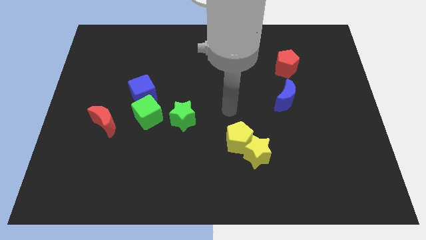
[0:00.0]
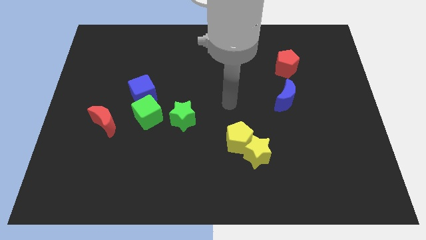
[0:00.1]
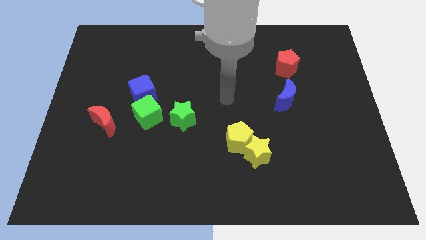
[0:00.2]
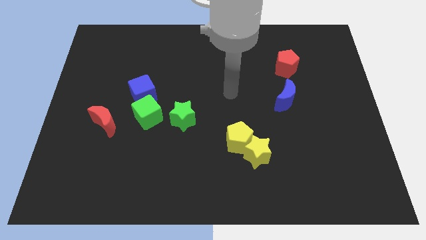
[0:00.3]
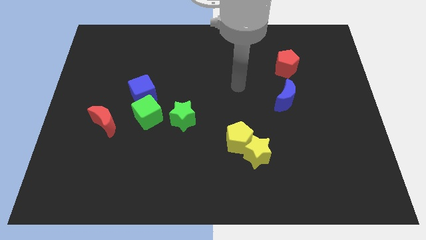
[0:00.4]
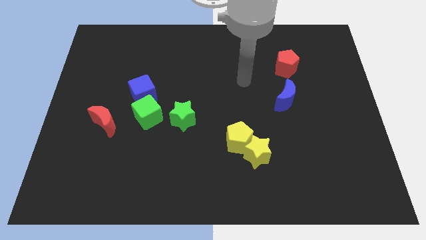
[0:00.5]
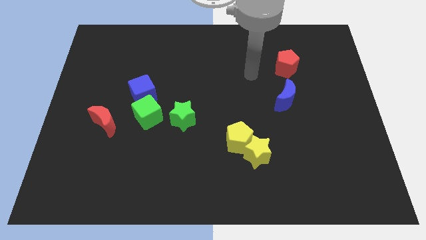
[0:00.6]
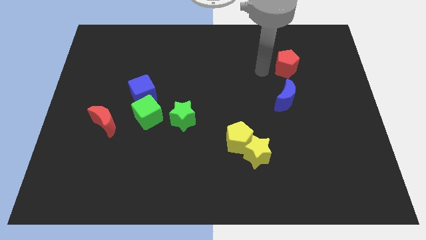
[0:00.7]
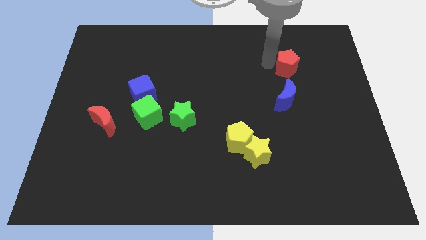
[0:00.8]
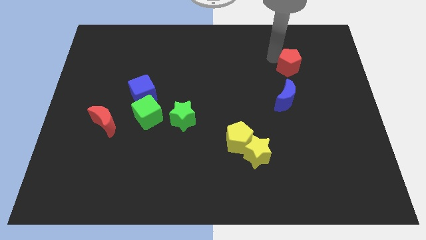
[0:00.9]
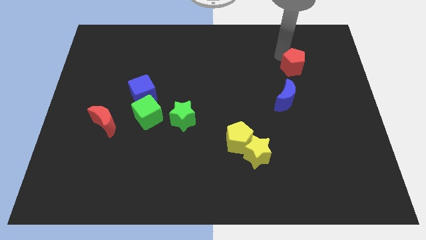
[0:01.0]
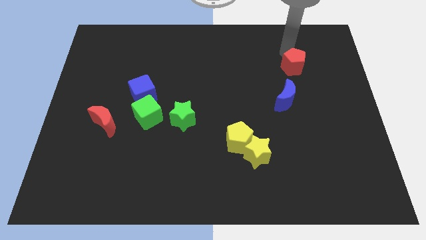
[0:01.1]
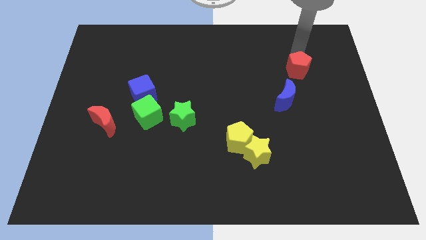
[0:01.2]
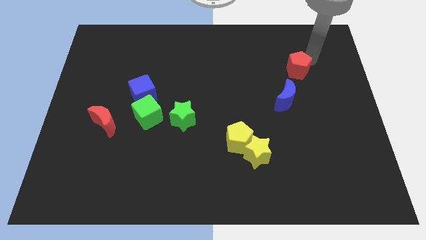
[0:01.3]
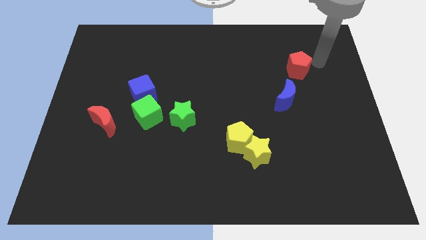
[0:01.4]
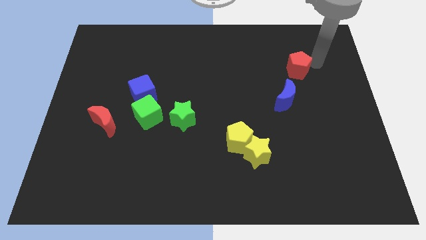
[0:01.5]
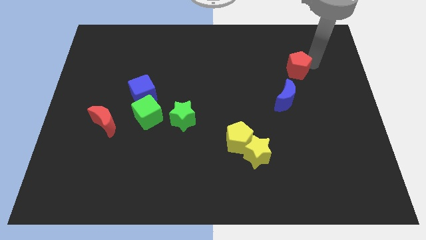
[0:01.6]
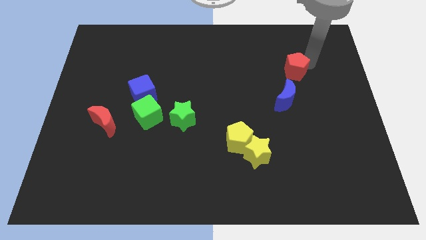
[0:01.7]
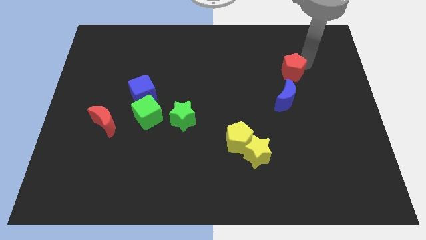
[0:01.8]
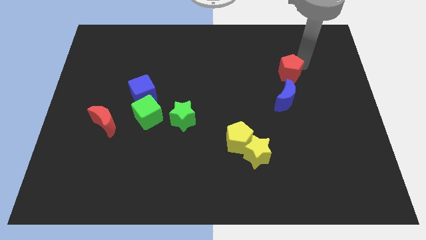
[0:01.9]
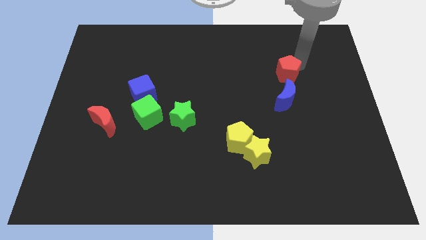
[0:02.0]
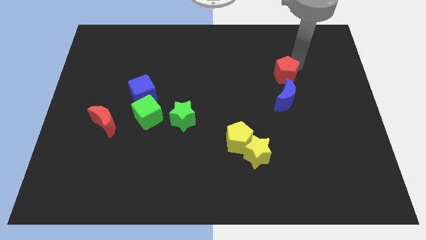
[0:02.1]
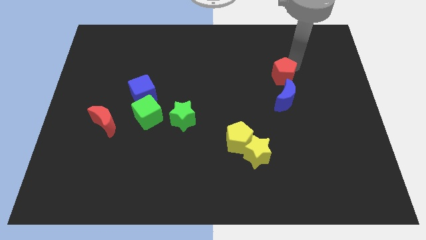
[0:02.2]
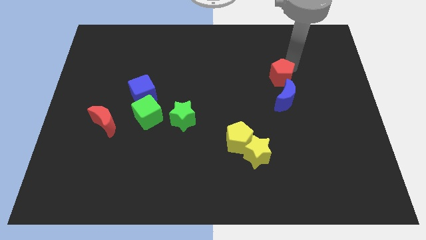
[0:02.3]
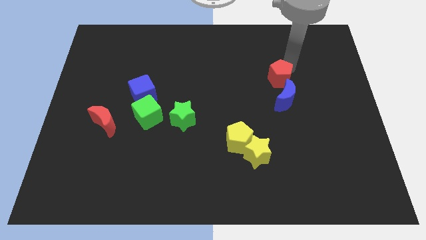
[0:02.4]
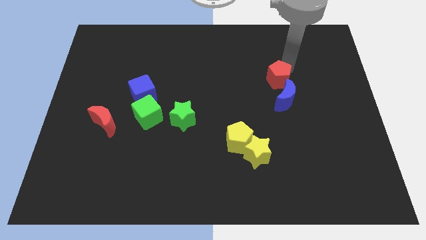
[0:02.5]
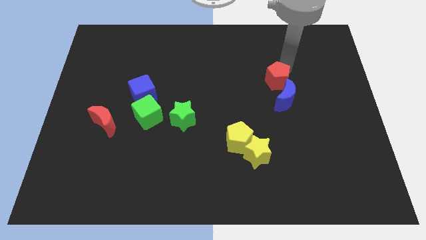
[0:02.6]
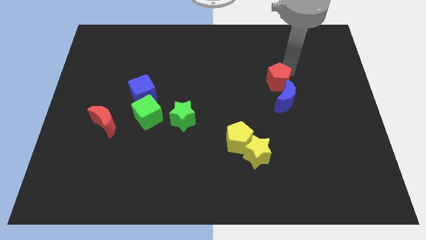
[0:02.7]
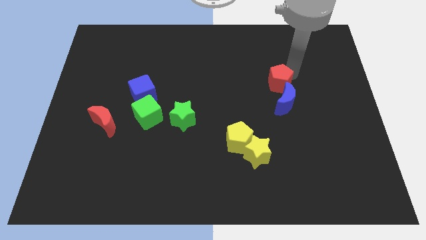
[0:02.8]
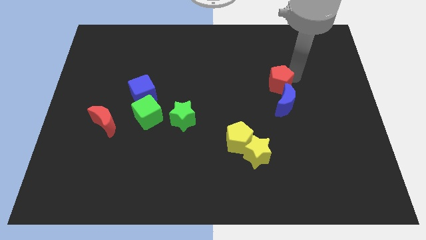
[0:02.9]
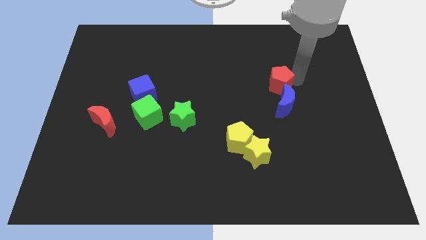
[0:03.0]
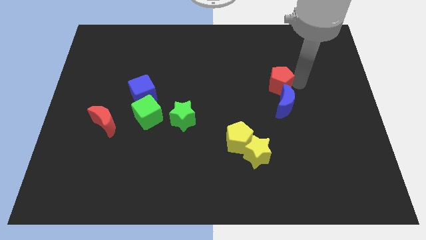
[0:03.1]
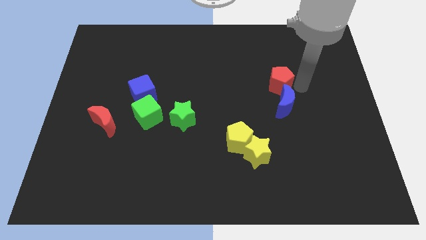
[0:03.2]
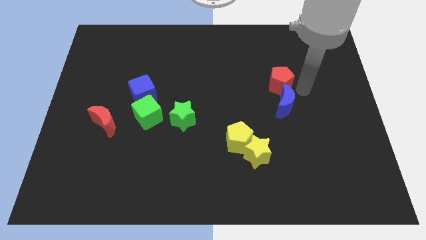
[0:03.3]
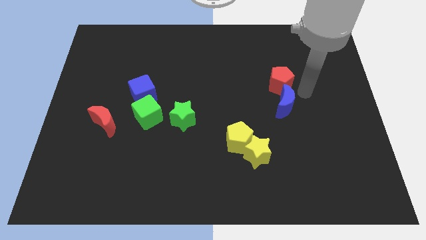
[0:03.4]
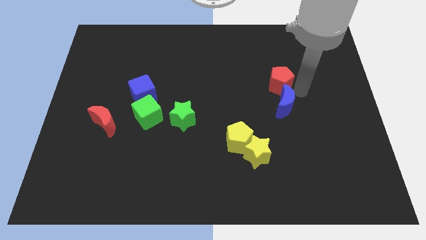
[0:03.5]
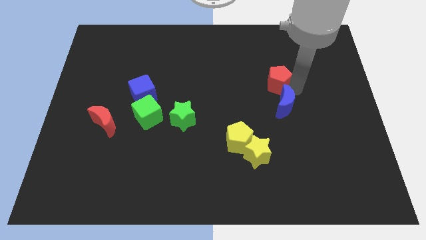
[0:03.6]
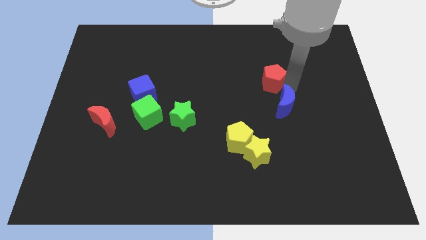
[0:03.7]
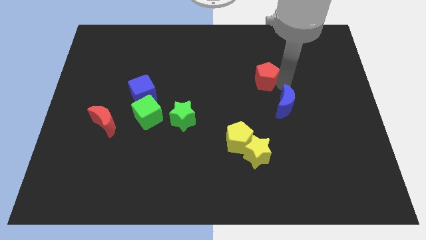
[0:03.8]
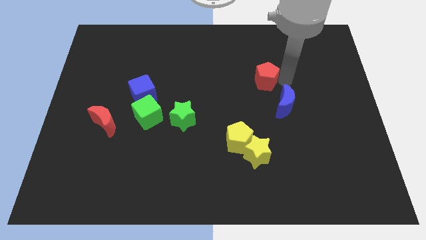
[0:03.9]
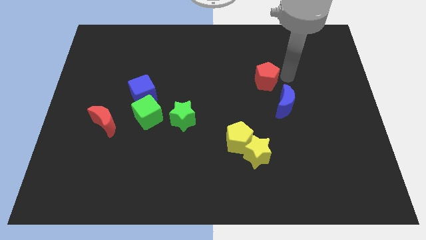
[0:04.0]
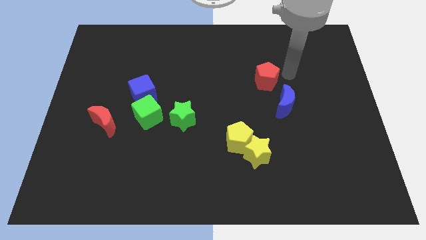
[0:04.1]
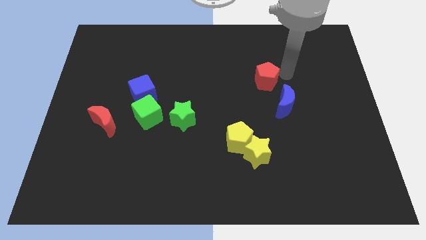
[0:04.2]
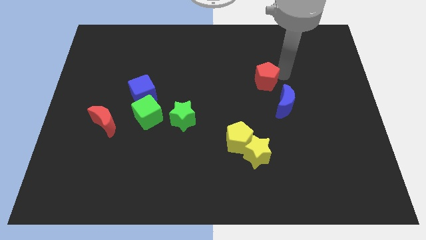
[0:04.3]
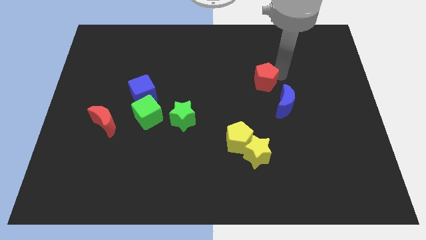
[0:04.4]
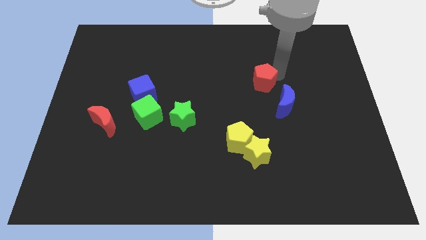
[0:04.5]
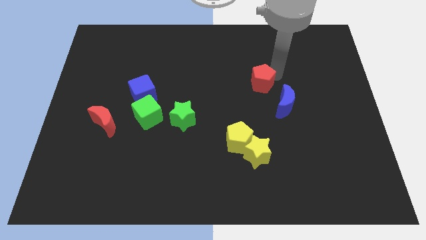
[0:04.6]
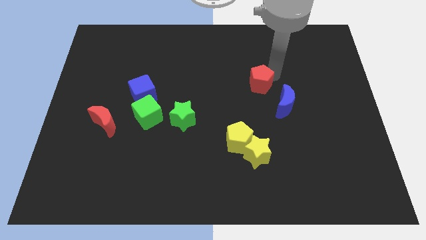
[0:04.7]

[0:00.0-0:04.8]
move the red pentagon to the center of the board

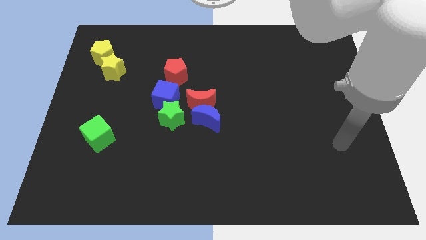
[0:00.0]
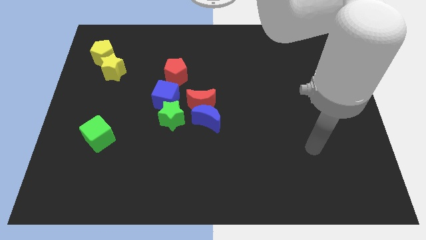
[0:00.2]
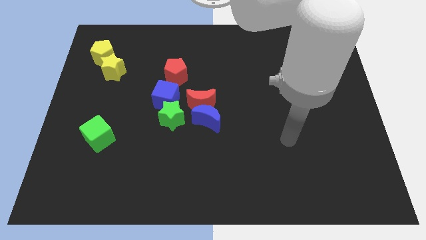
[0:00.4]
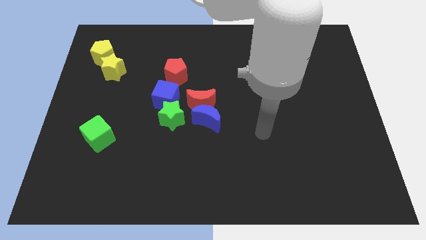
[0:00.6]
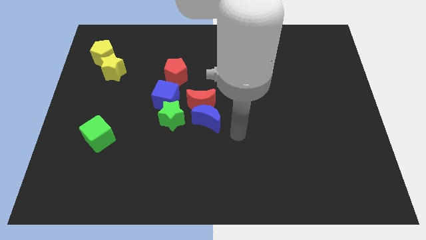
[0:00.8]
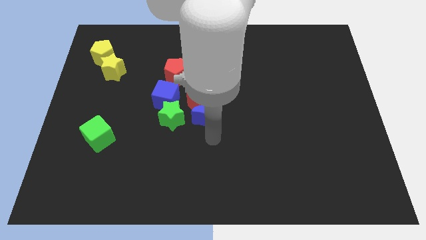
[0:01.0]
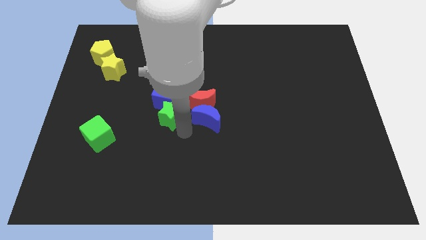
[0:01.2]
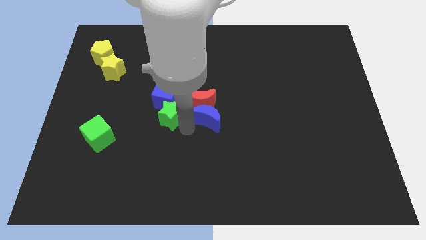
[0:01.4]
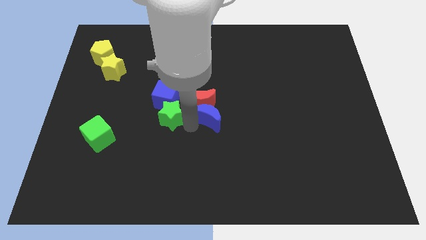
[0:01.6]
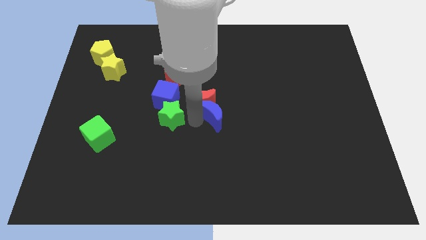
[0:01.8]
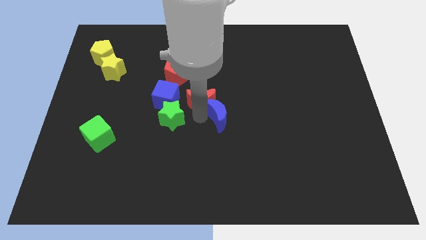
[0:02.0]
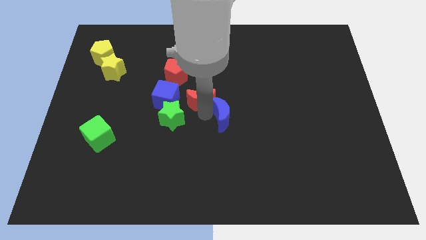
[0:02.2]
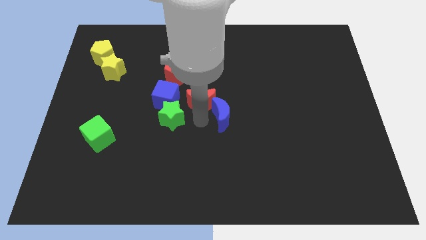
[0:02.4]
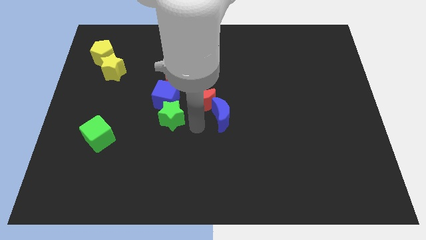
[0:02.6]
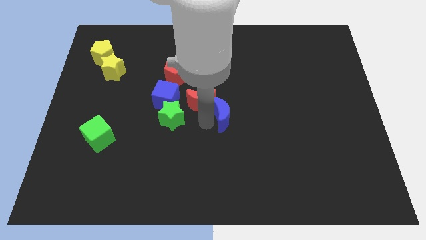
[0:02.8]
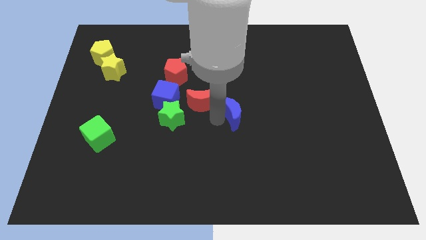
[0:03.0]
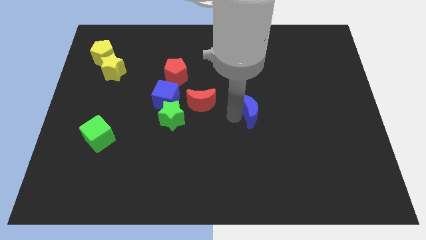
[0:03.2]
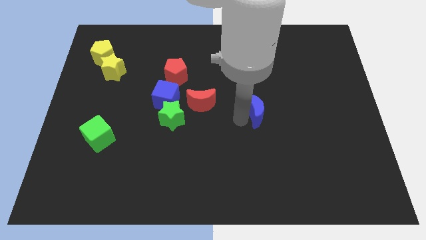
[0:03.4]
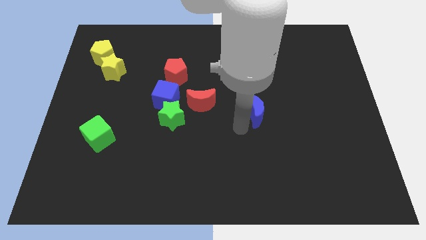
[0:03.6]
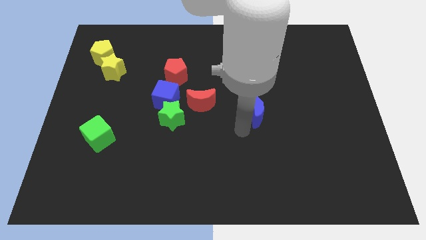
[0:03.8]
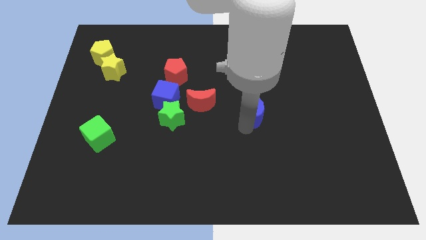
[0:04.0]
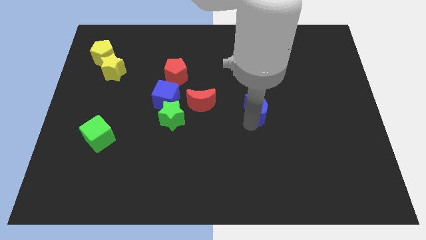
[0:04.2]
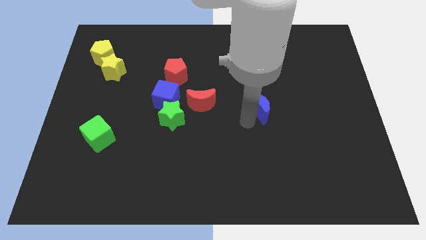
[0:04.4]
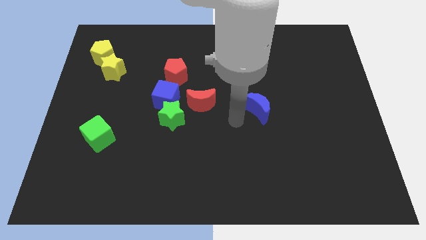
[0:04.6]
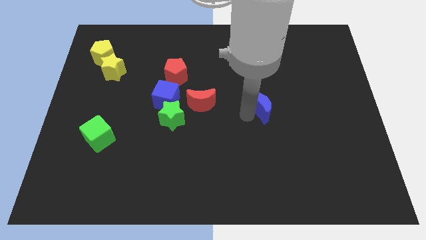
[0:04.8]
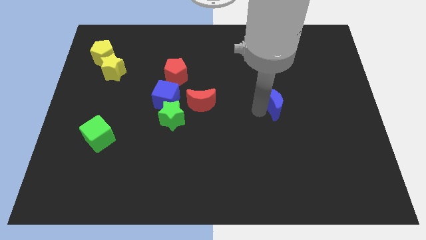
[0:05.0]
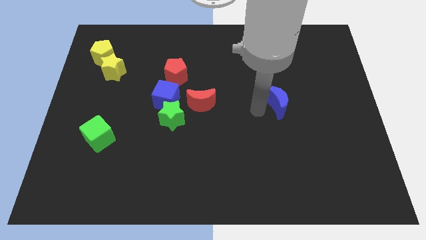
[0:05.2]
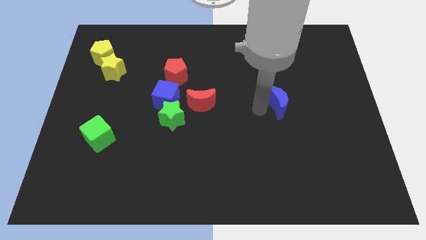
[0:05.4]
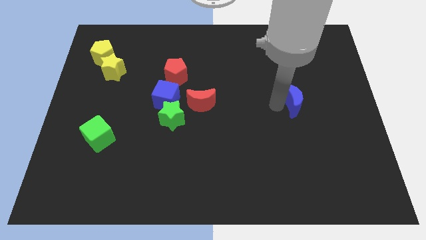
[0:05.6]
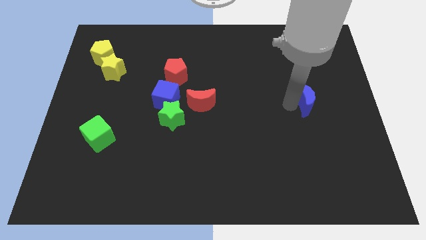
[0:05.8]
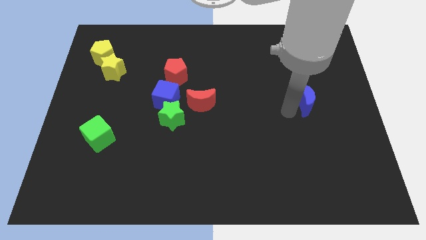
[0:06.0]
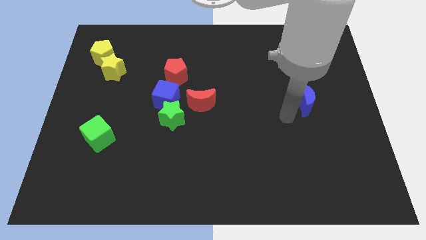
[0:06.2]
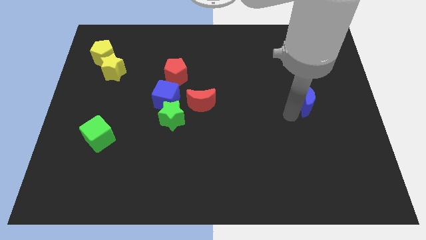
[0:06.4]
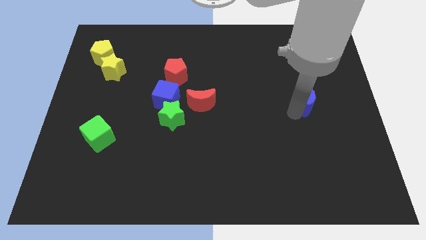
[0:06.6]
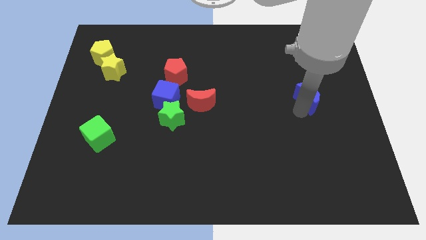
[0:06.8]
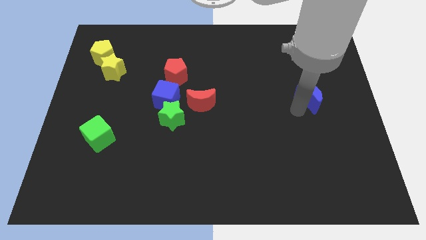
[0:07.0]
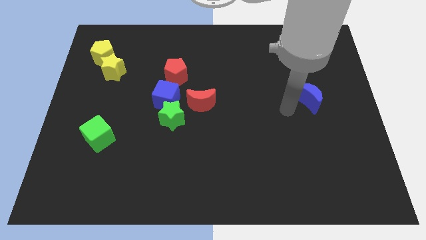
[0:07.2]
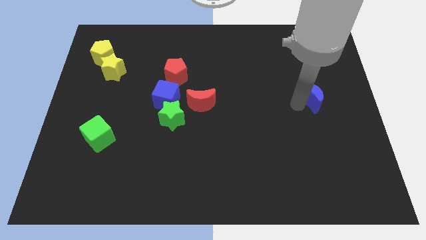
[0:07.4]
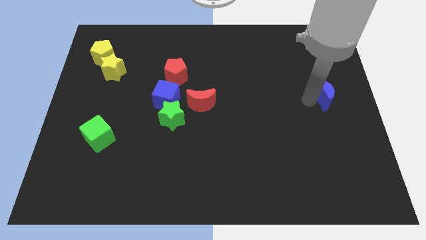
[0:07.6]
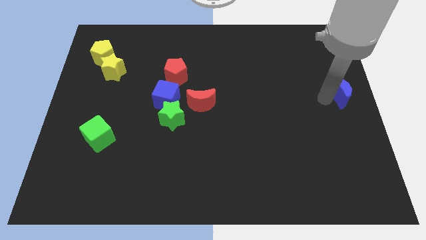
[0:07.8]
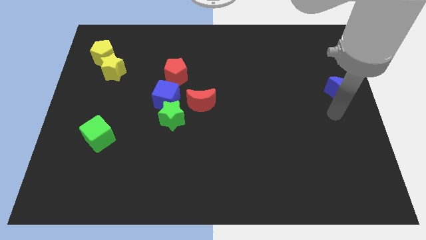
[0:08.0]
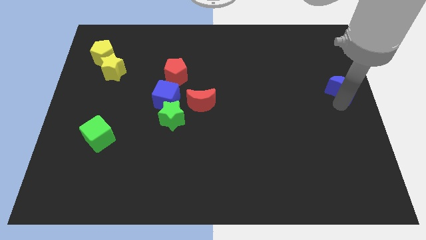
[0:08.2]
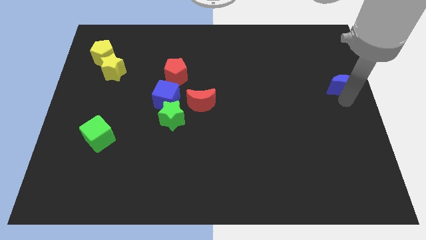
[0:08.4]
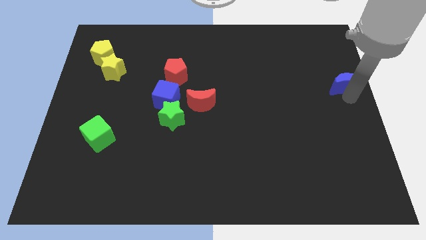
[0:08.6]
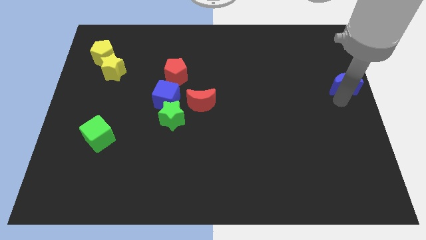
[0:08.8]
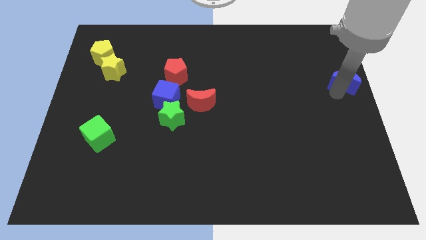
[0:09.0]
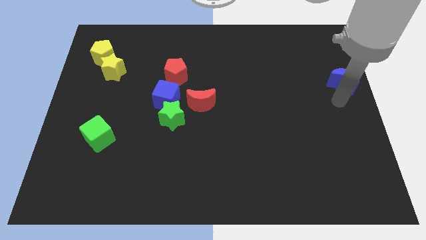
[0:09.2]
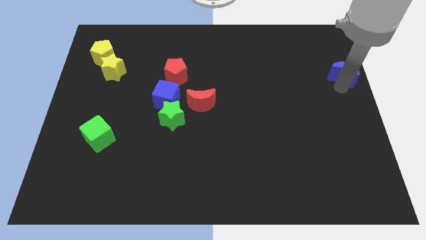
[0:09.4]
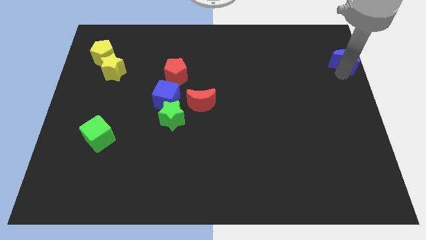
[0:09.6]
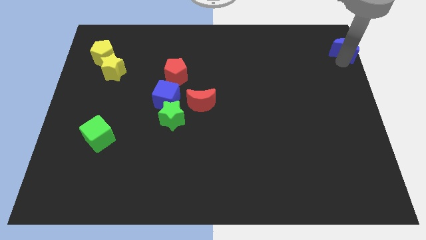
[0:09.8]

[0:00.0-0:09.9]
put the blue moon to the upper right corner
